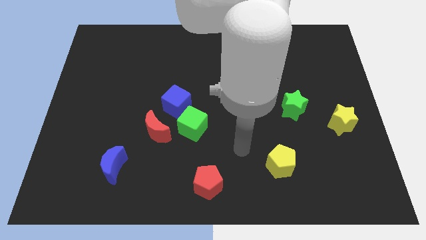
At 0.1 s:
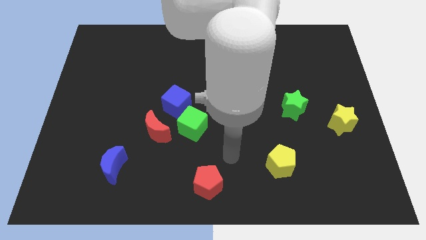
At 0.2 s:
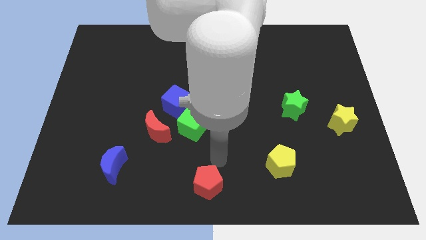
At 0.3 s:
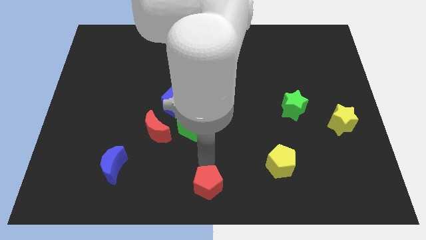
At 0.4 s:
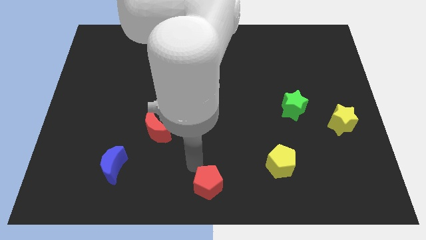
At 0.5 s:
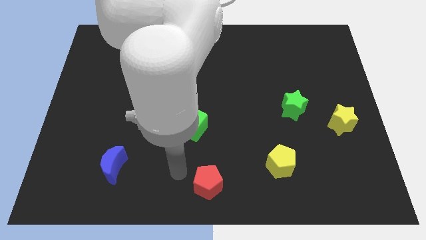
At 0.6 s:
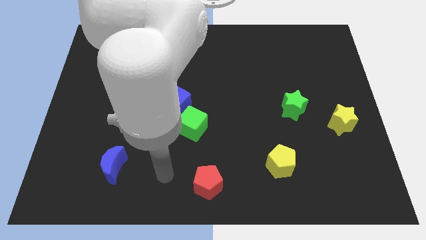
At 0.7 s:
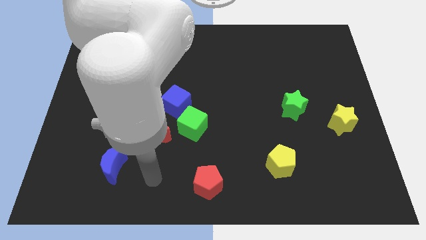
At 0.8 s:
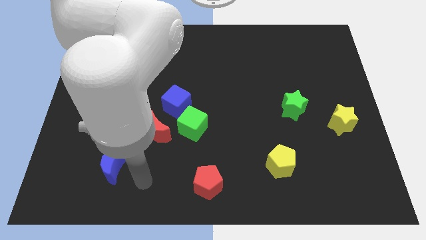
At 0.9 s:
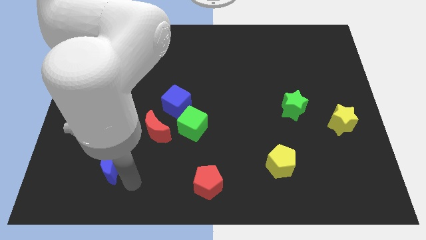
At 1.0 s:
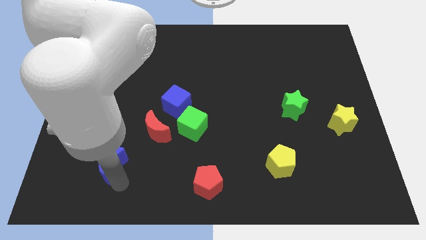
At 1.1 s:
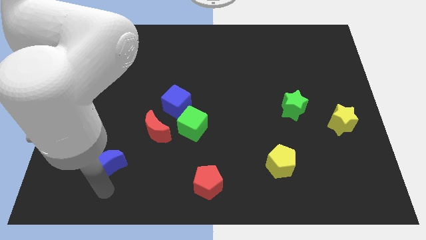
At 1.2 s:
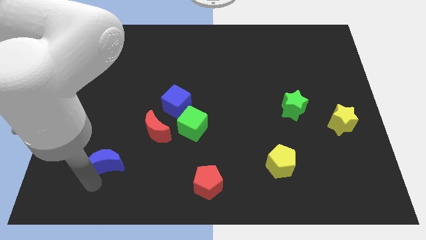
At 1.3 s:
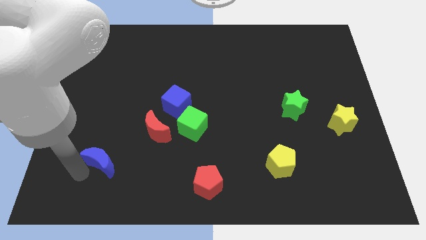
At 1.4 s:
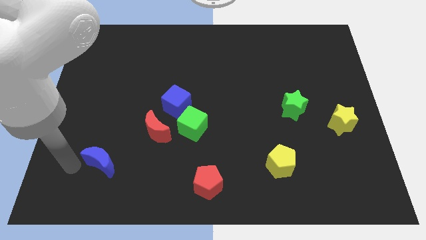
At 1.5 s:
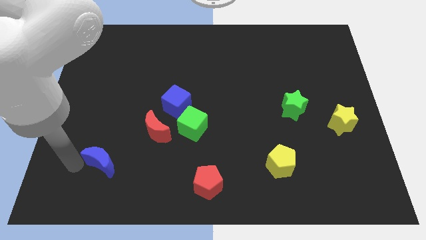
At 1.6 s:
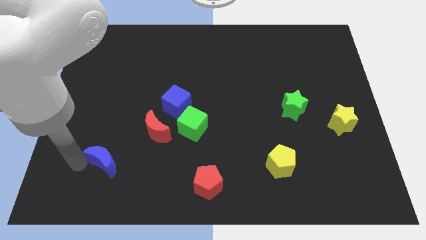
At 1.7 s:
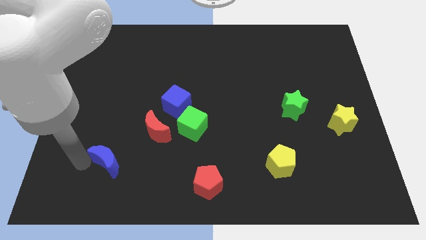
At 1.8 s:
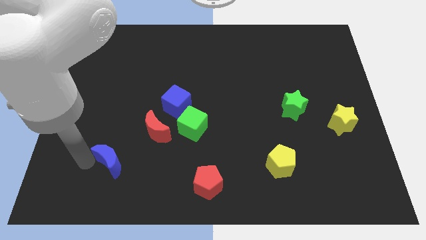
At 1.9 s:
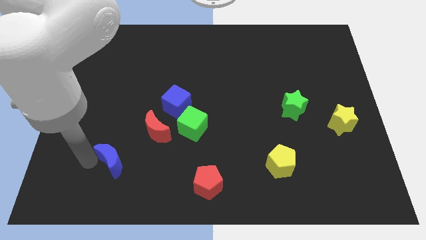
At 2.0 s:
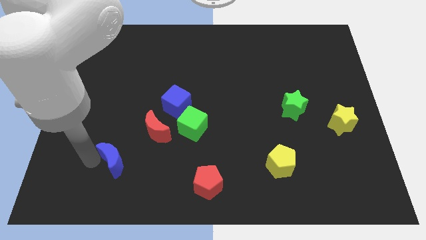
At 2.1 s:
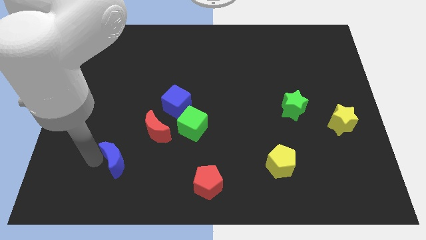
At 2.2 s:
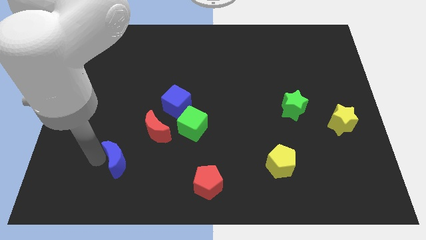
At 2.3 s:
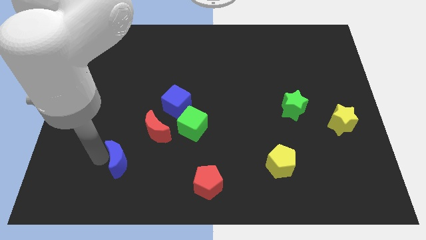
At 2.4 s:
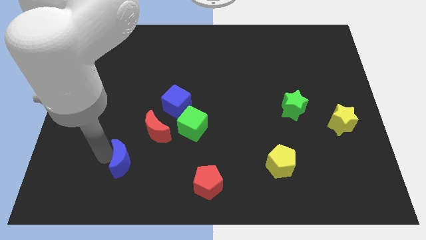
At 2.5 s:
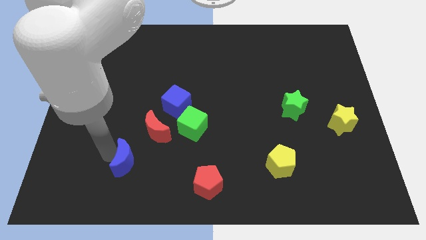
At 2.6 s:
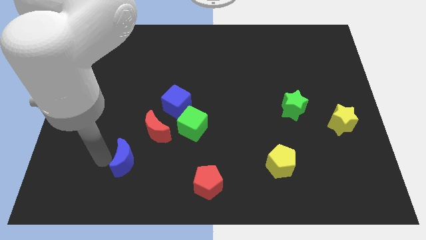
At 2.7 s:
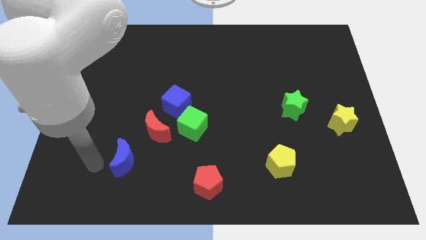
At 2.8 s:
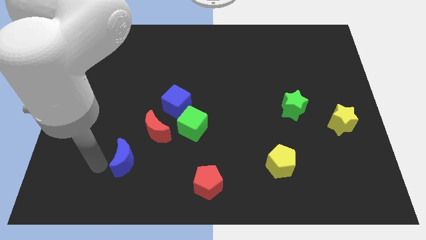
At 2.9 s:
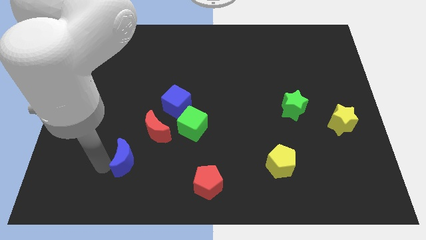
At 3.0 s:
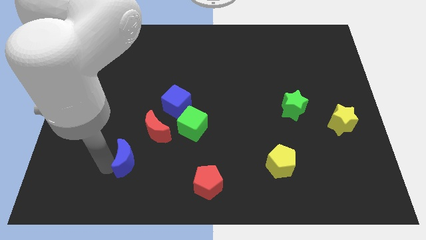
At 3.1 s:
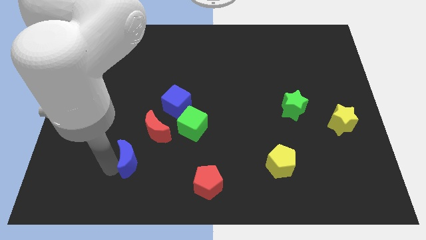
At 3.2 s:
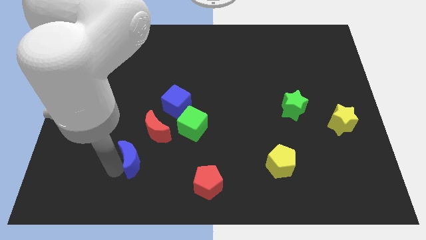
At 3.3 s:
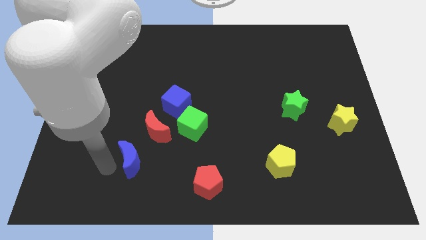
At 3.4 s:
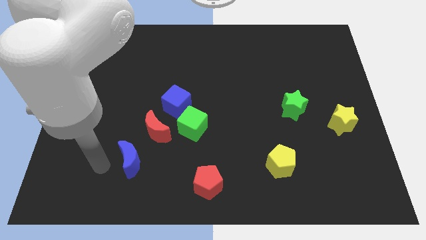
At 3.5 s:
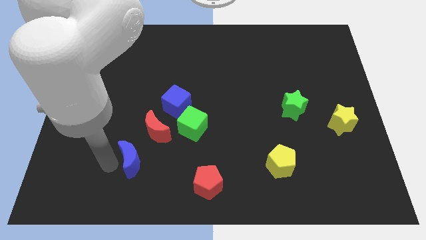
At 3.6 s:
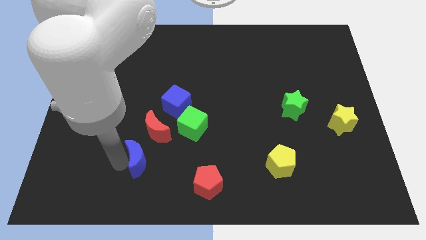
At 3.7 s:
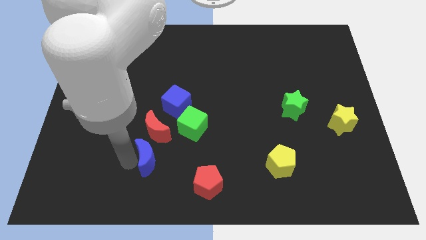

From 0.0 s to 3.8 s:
push the blue moon to the right a little bit

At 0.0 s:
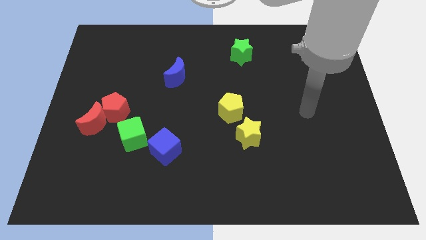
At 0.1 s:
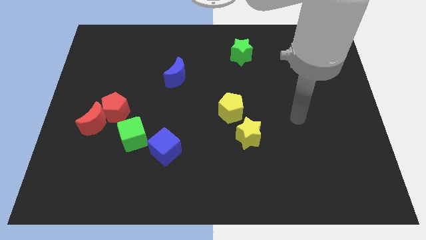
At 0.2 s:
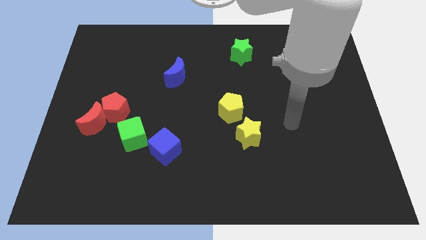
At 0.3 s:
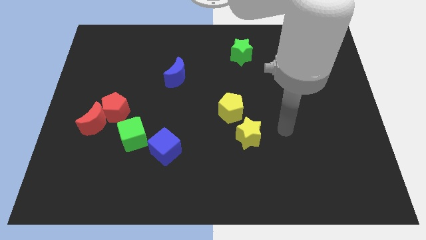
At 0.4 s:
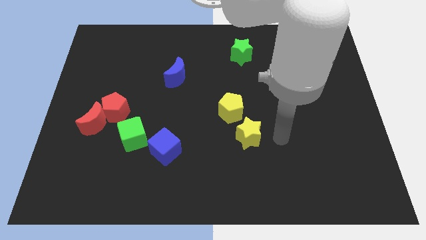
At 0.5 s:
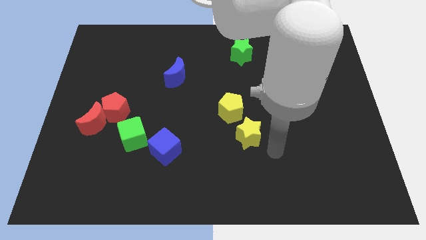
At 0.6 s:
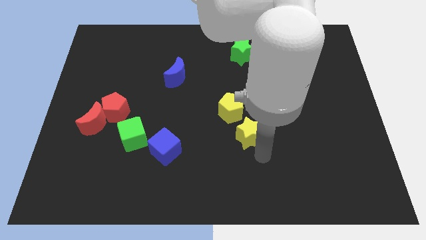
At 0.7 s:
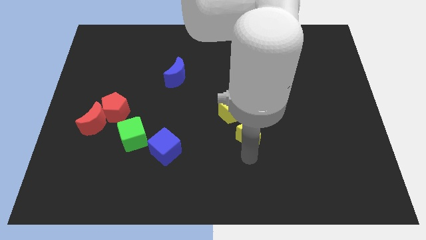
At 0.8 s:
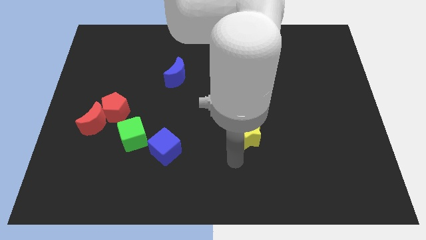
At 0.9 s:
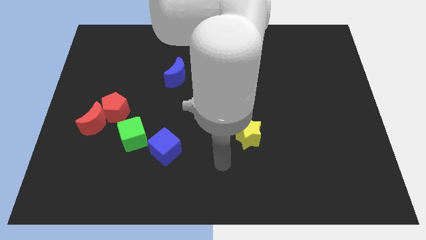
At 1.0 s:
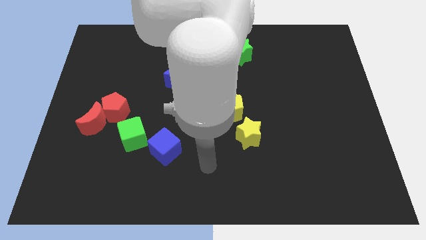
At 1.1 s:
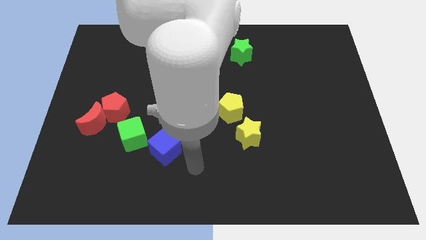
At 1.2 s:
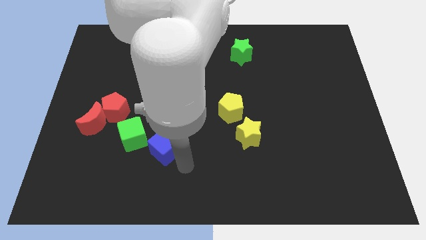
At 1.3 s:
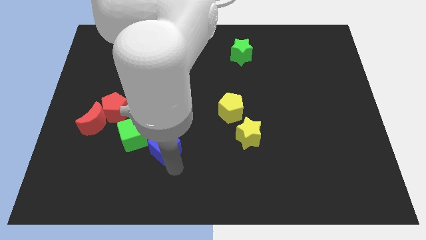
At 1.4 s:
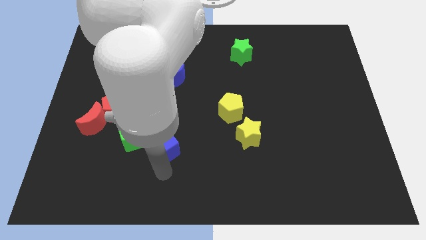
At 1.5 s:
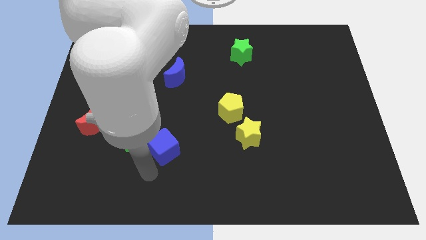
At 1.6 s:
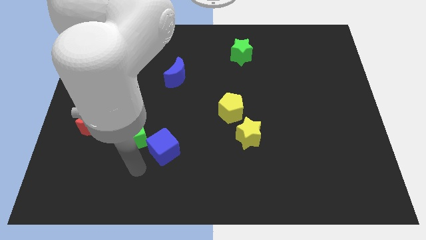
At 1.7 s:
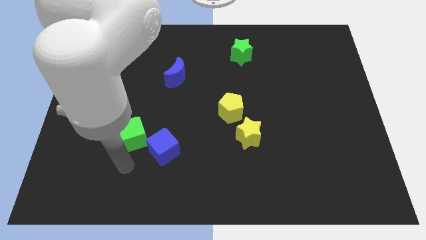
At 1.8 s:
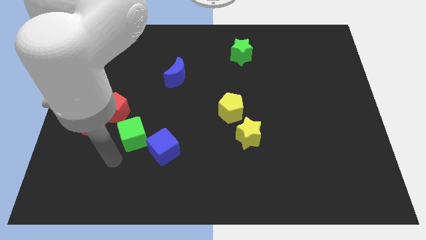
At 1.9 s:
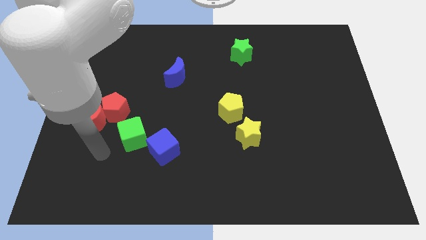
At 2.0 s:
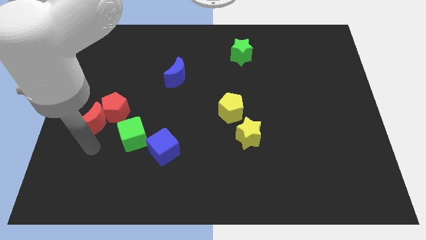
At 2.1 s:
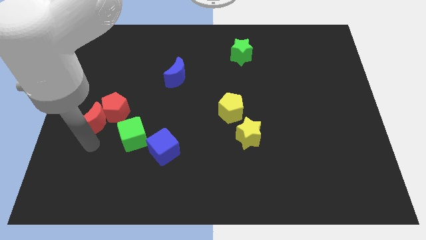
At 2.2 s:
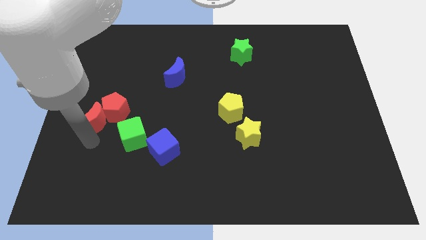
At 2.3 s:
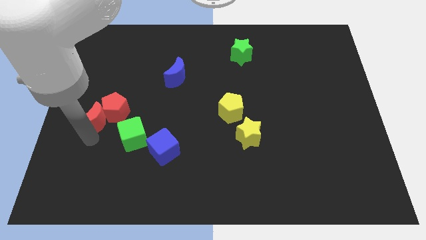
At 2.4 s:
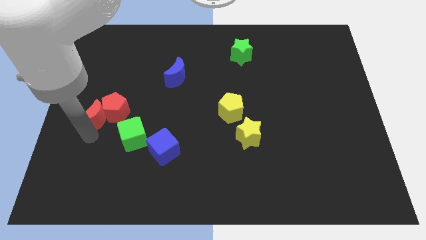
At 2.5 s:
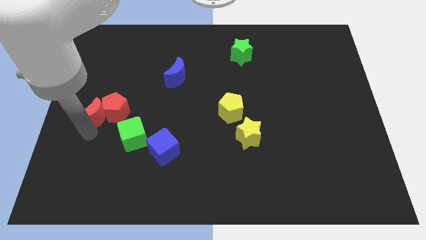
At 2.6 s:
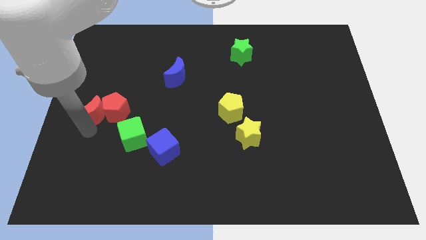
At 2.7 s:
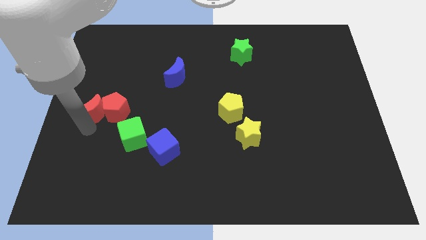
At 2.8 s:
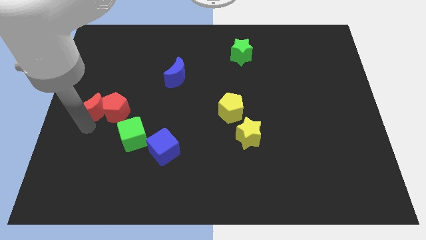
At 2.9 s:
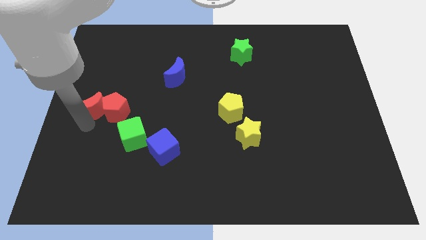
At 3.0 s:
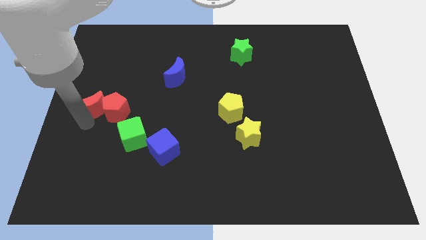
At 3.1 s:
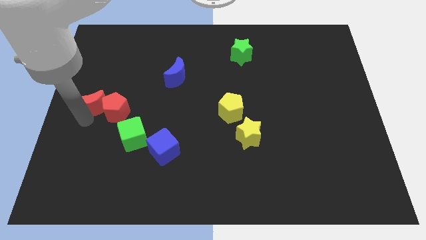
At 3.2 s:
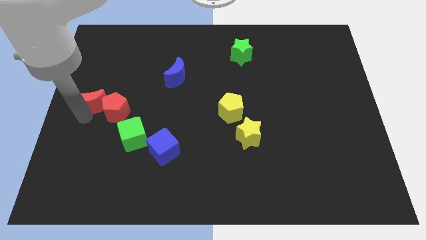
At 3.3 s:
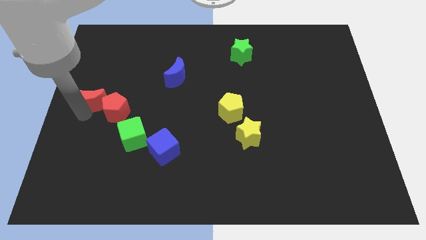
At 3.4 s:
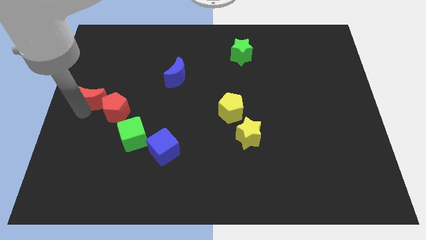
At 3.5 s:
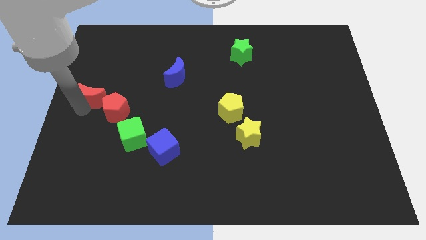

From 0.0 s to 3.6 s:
slide the red moon a little upwards

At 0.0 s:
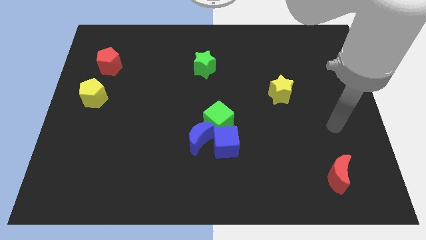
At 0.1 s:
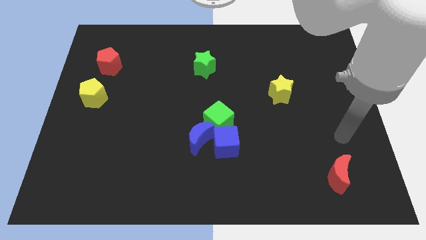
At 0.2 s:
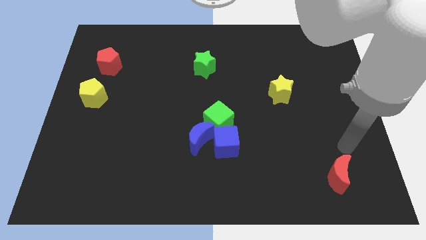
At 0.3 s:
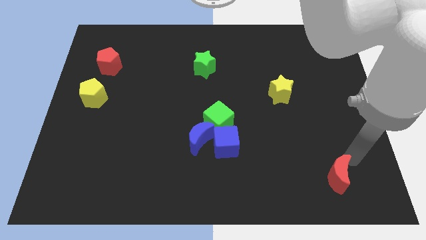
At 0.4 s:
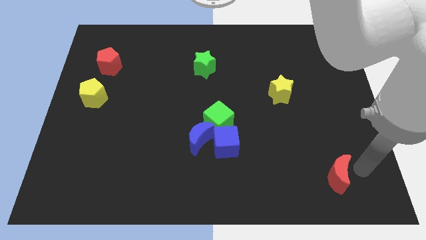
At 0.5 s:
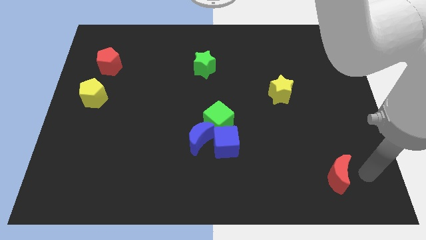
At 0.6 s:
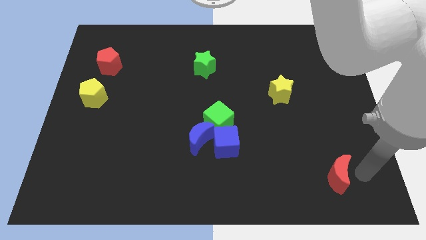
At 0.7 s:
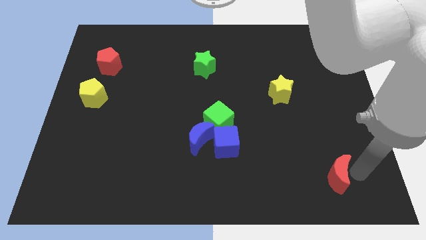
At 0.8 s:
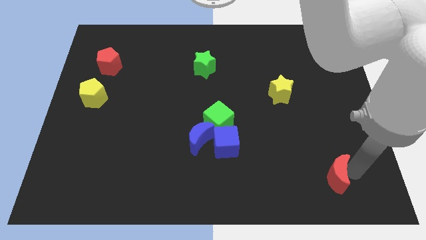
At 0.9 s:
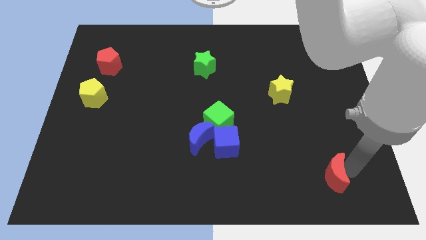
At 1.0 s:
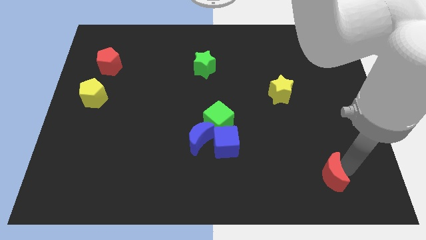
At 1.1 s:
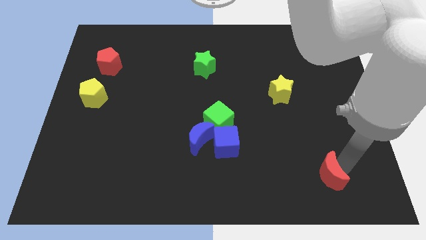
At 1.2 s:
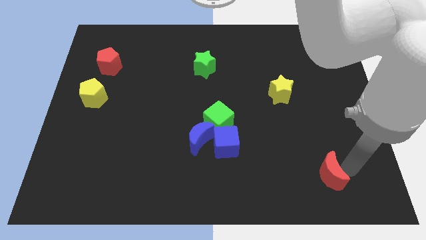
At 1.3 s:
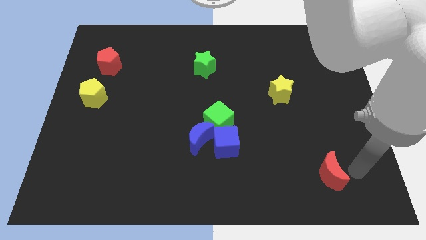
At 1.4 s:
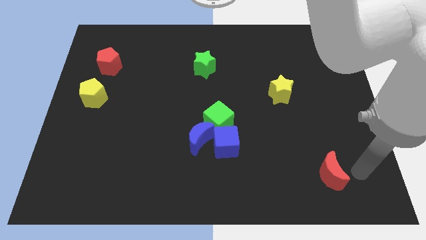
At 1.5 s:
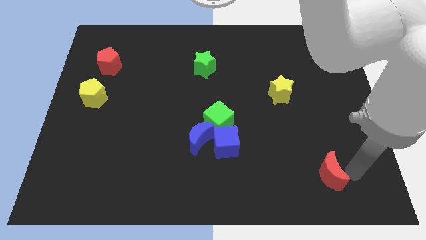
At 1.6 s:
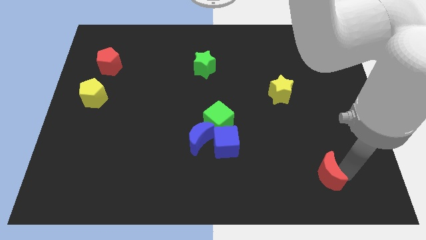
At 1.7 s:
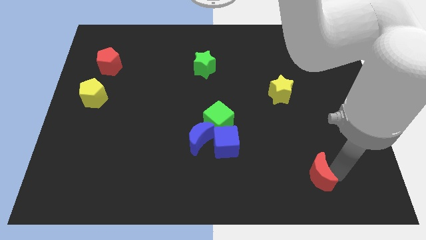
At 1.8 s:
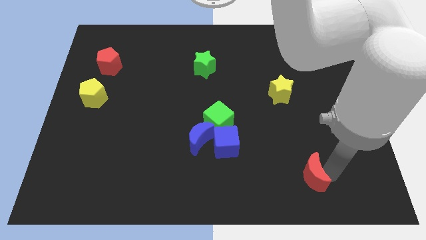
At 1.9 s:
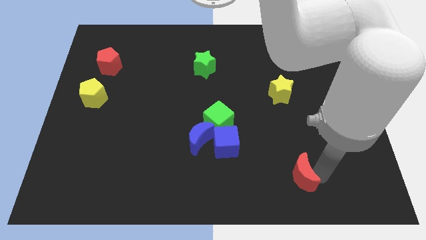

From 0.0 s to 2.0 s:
slightly move the red moon left
